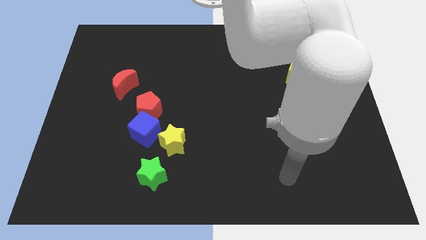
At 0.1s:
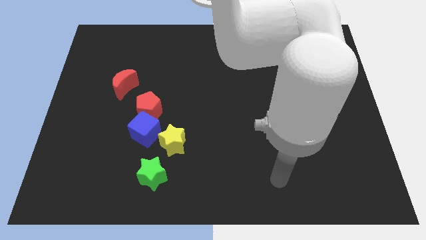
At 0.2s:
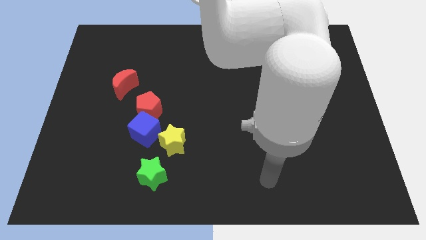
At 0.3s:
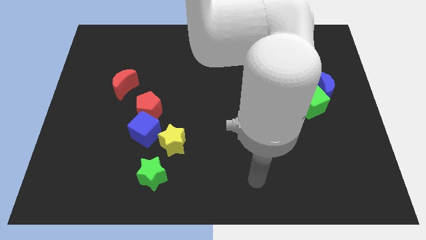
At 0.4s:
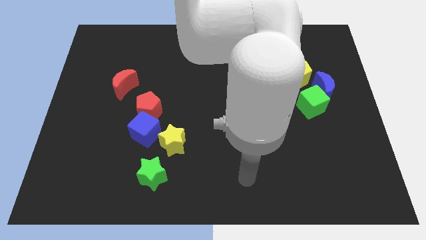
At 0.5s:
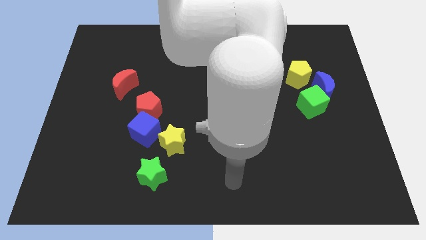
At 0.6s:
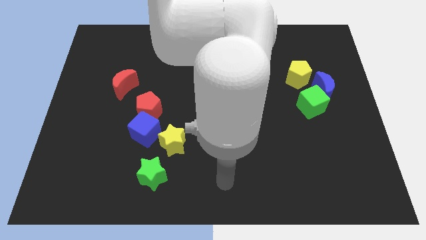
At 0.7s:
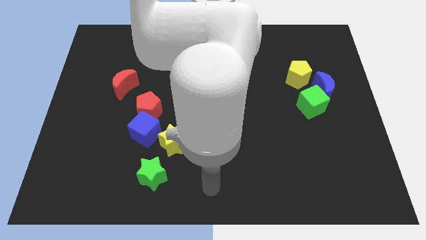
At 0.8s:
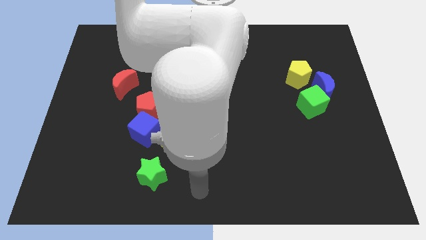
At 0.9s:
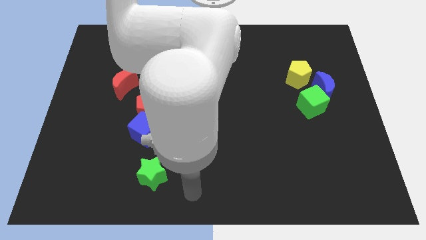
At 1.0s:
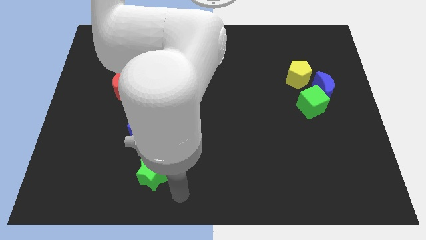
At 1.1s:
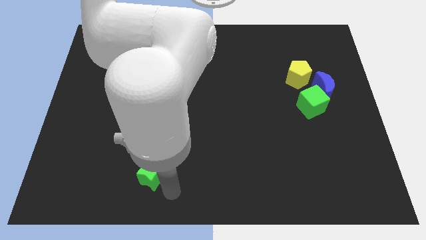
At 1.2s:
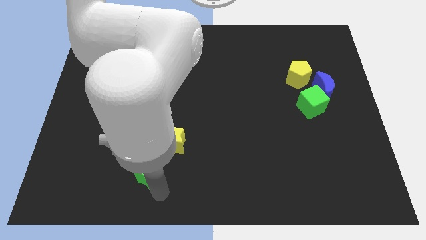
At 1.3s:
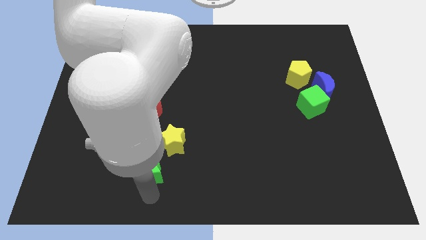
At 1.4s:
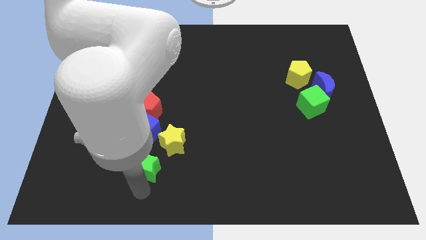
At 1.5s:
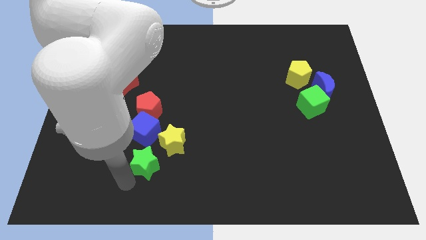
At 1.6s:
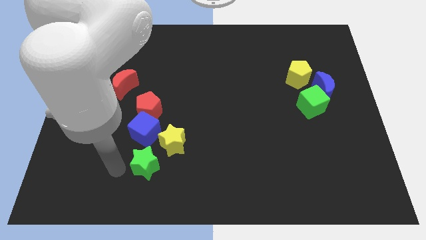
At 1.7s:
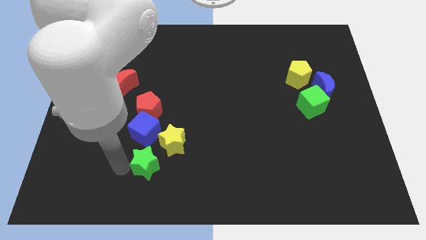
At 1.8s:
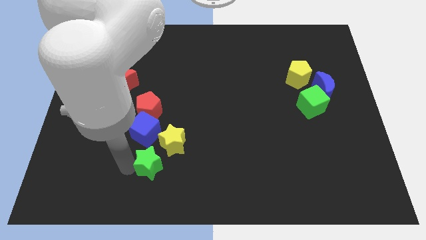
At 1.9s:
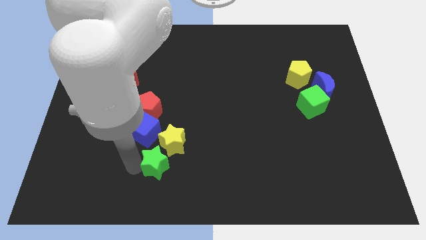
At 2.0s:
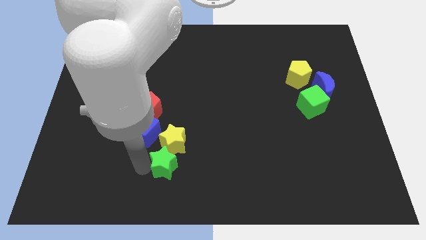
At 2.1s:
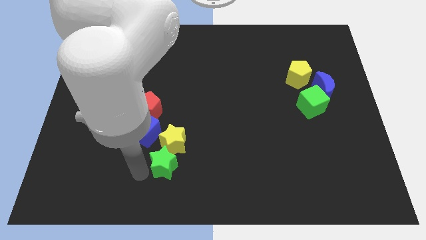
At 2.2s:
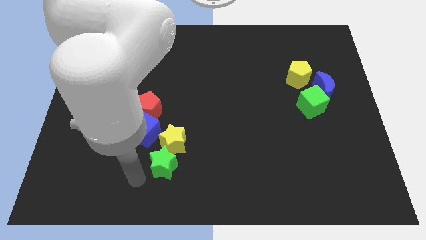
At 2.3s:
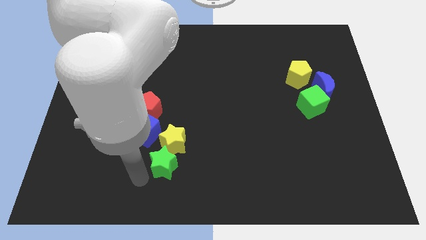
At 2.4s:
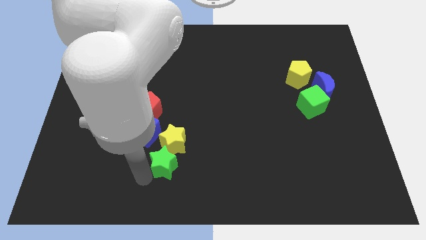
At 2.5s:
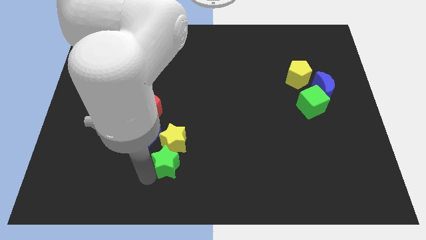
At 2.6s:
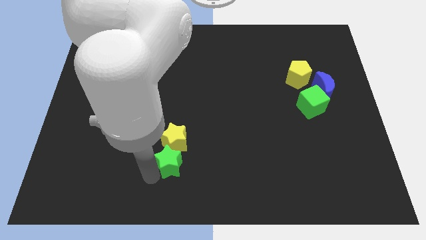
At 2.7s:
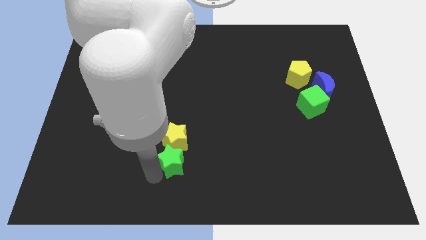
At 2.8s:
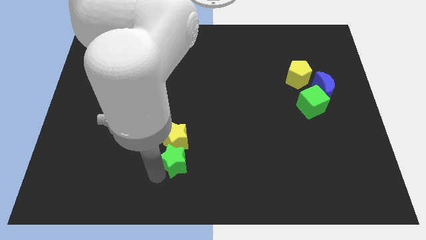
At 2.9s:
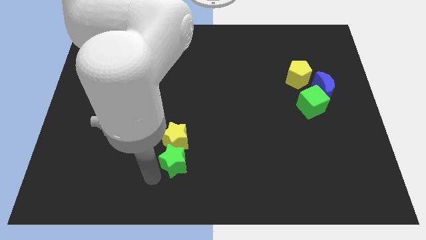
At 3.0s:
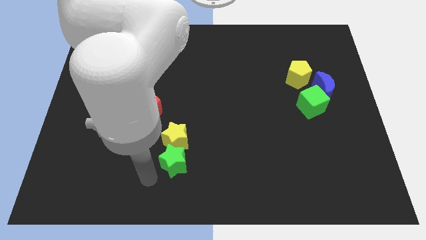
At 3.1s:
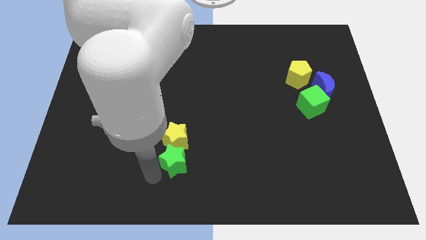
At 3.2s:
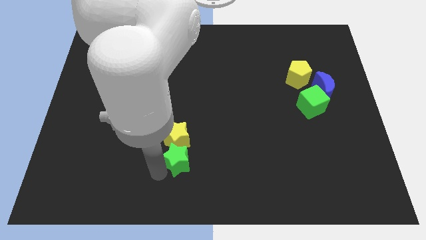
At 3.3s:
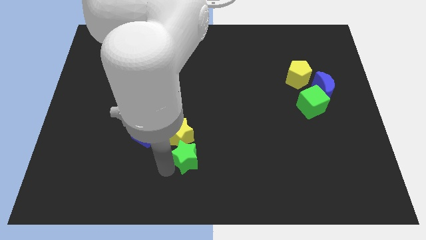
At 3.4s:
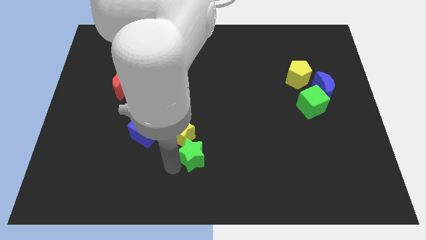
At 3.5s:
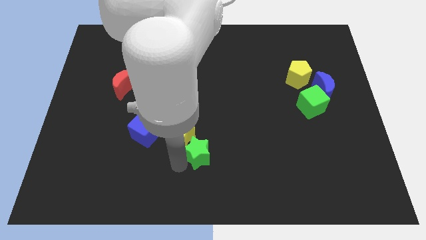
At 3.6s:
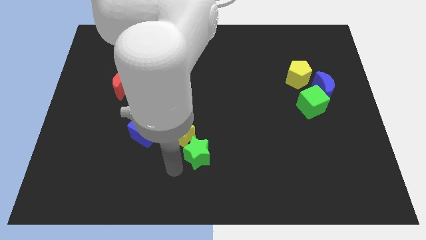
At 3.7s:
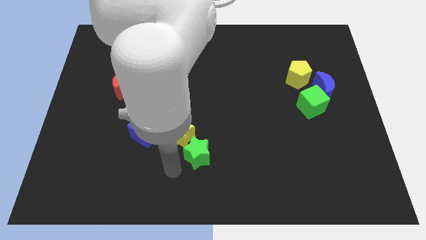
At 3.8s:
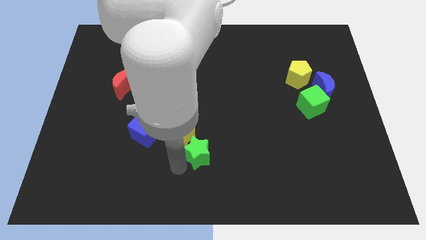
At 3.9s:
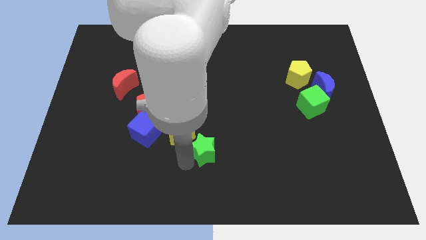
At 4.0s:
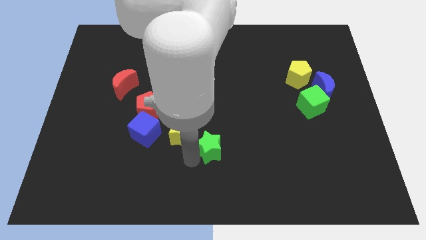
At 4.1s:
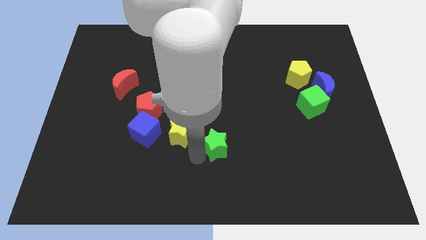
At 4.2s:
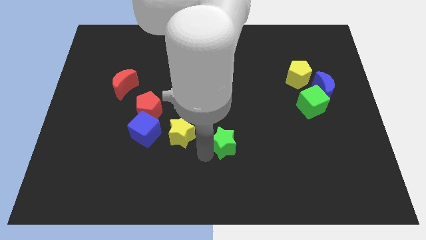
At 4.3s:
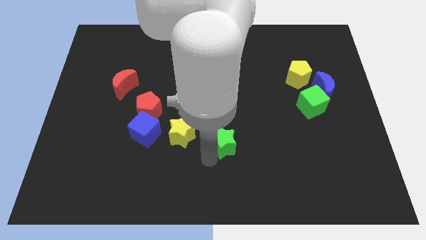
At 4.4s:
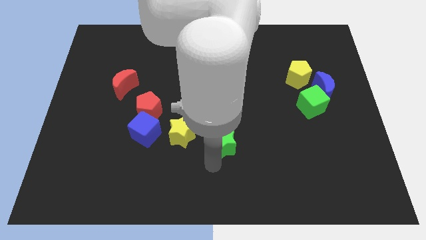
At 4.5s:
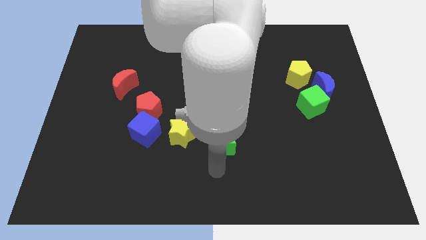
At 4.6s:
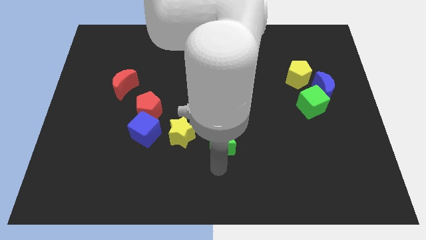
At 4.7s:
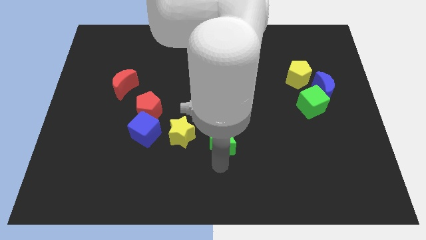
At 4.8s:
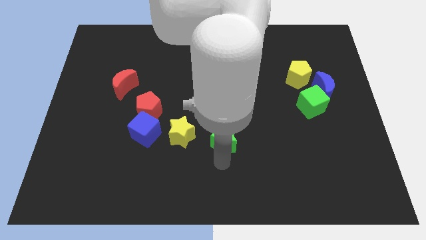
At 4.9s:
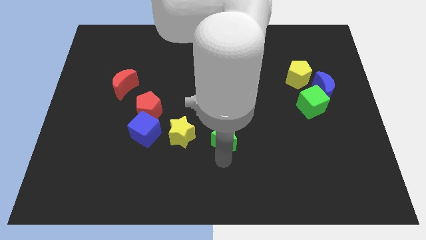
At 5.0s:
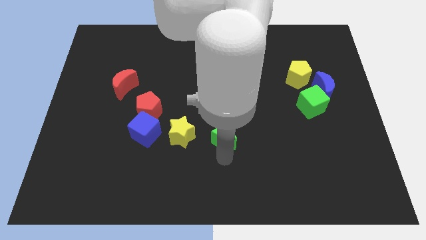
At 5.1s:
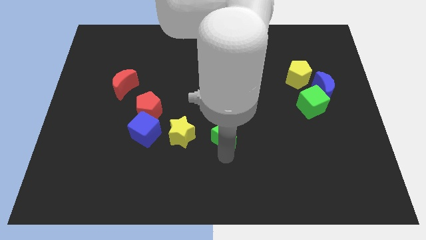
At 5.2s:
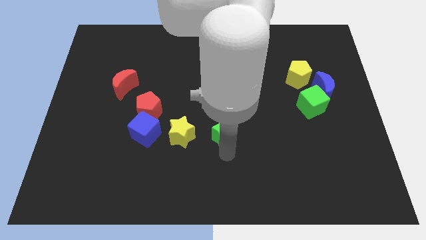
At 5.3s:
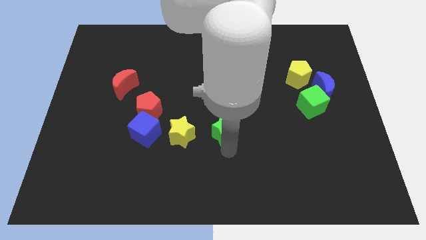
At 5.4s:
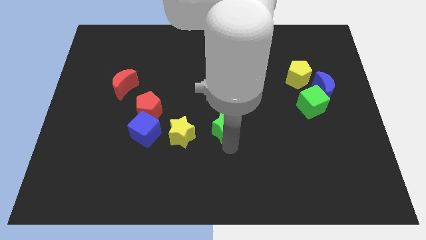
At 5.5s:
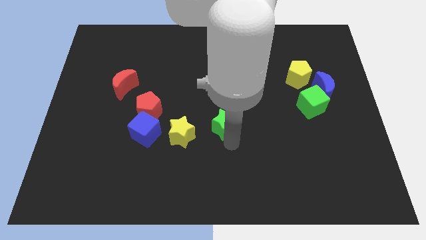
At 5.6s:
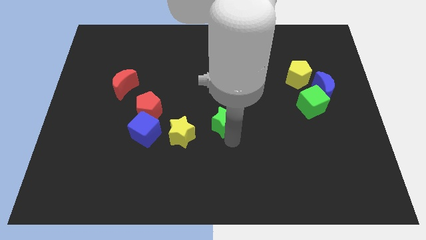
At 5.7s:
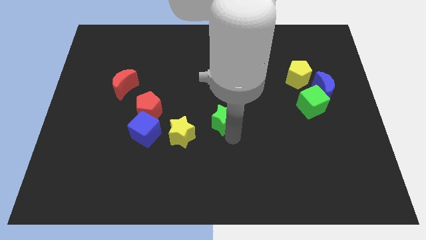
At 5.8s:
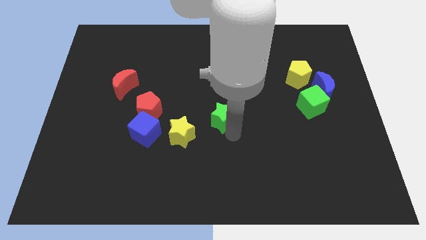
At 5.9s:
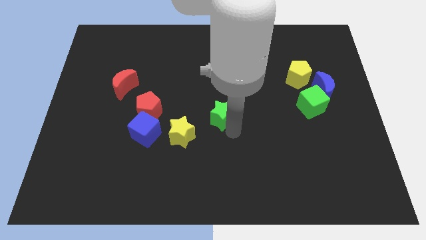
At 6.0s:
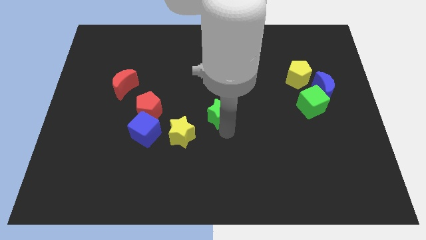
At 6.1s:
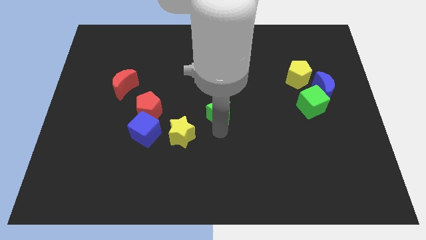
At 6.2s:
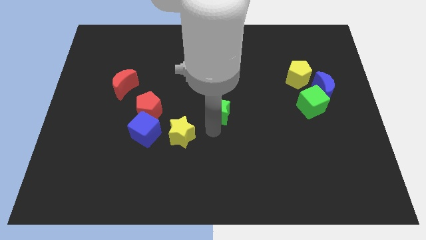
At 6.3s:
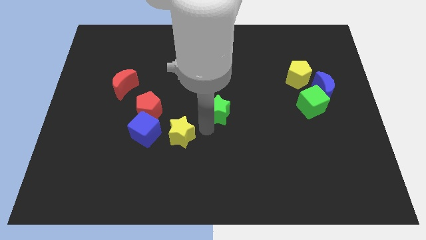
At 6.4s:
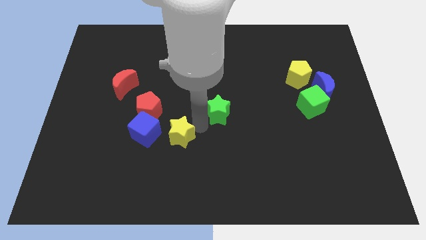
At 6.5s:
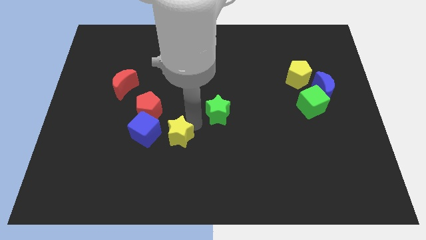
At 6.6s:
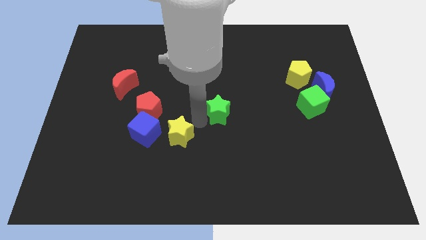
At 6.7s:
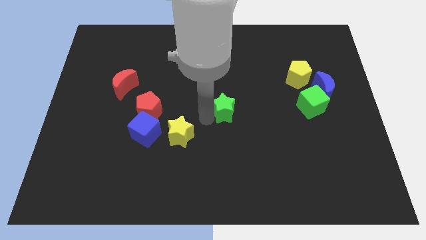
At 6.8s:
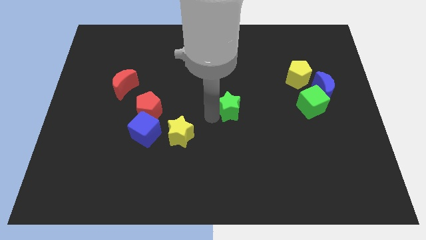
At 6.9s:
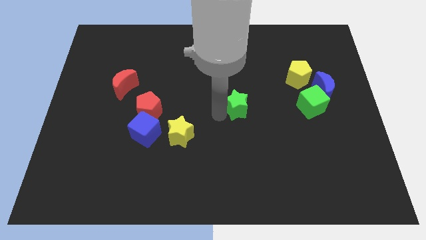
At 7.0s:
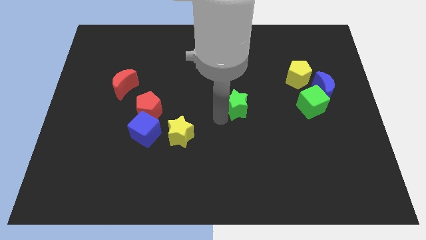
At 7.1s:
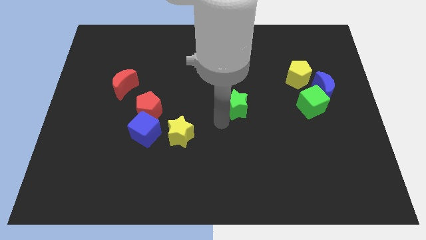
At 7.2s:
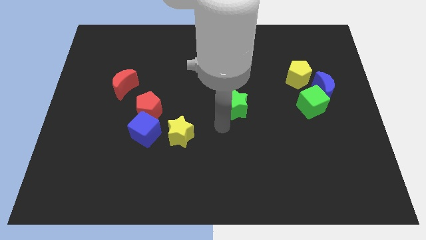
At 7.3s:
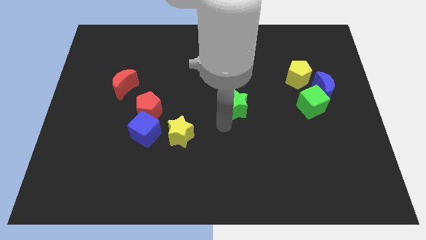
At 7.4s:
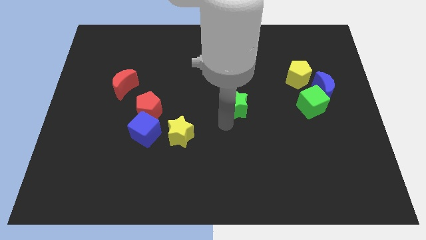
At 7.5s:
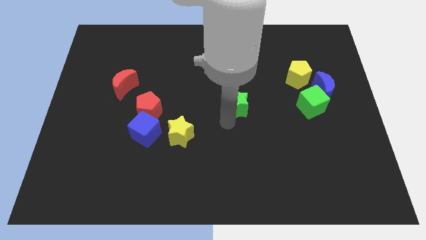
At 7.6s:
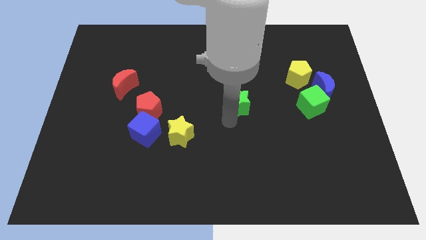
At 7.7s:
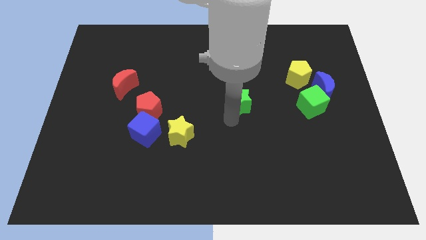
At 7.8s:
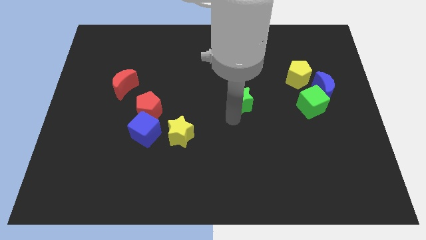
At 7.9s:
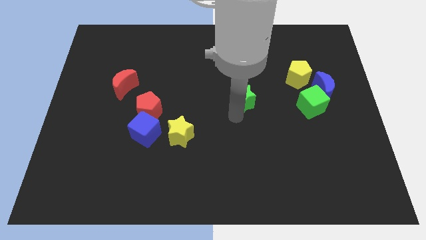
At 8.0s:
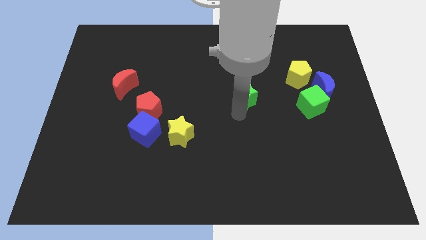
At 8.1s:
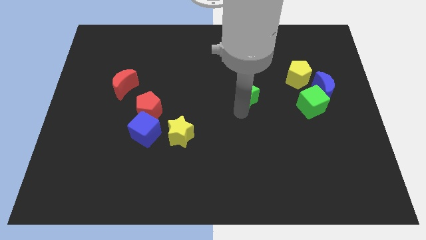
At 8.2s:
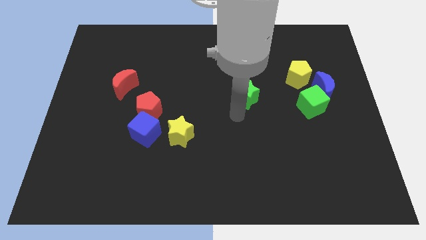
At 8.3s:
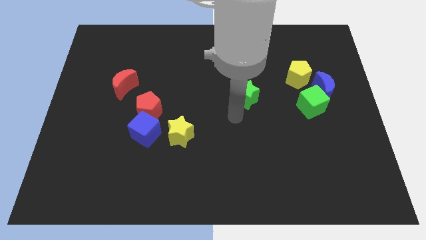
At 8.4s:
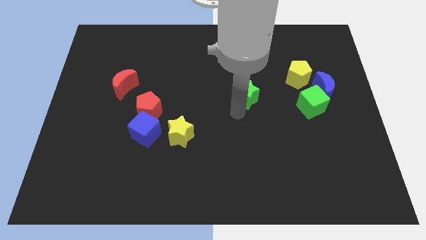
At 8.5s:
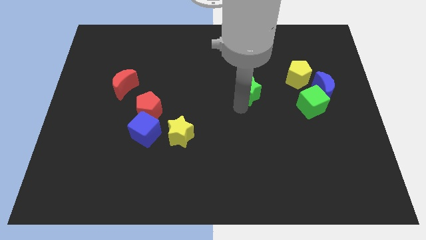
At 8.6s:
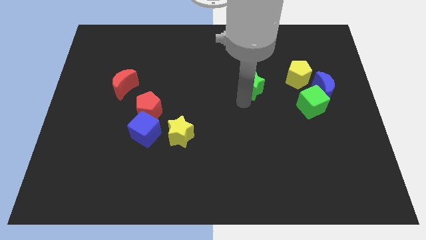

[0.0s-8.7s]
slide the green star just left of the yellow pentagon
